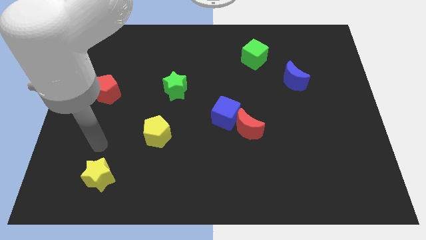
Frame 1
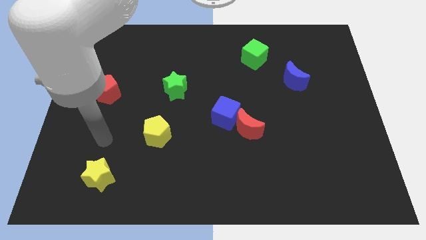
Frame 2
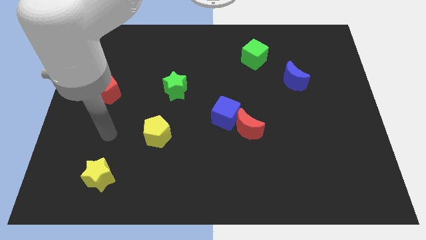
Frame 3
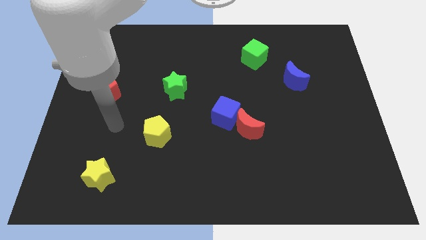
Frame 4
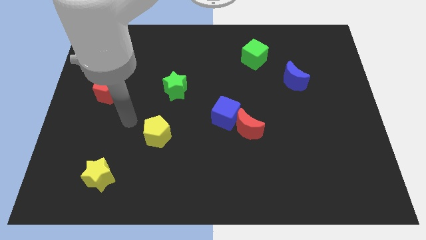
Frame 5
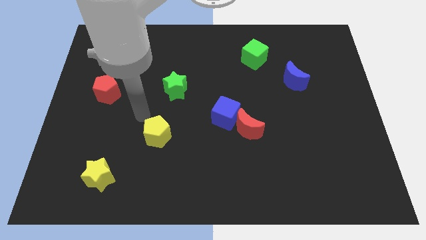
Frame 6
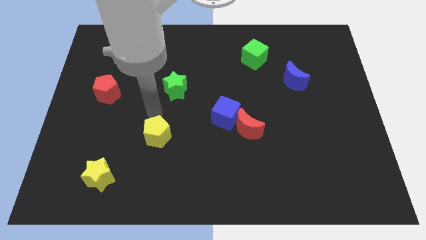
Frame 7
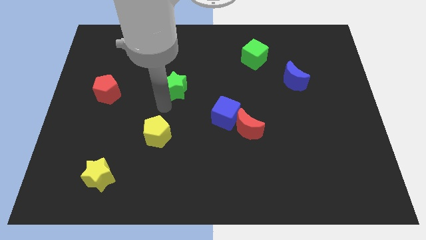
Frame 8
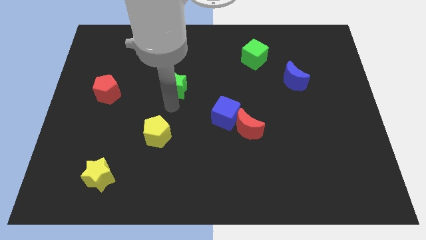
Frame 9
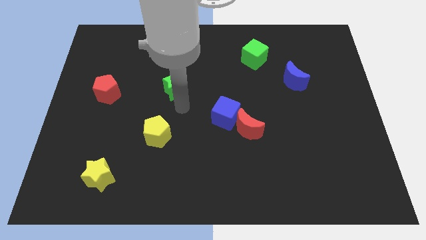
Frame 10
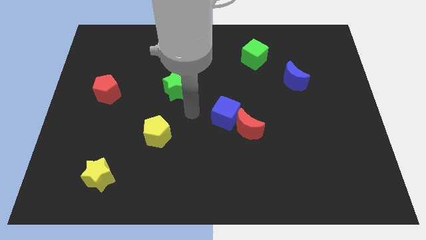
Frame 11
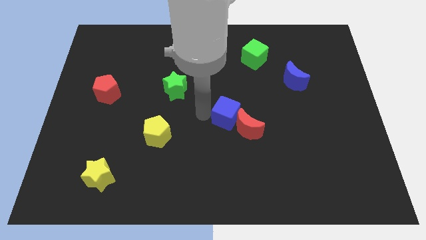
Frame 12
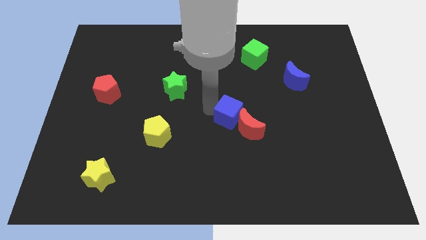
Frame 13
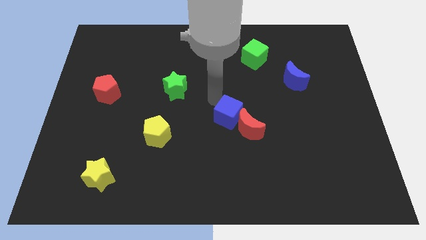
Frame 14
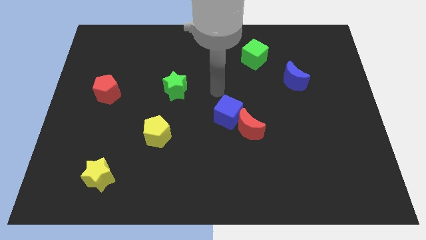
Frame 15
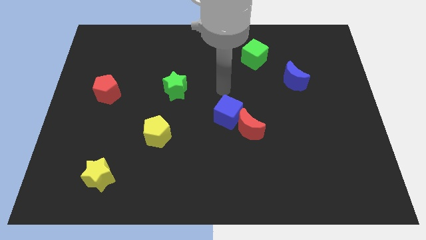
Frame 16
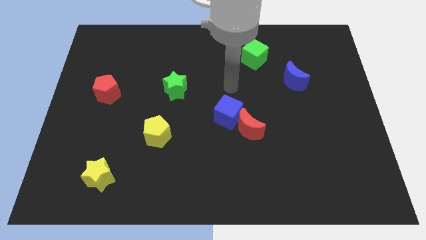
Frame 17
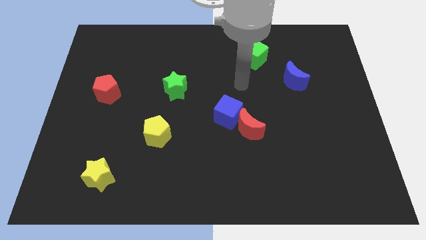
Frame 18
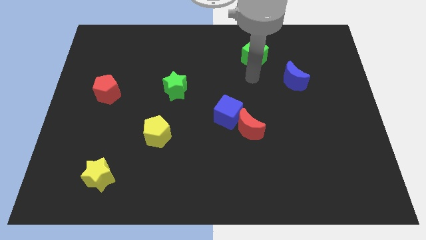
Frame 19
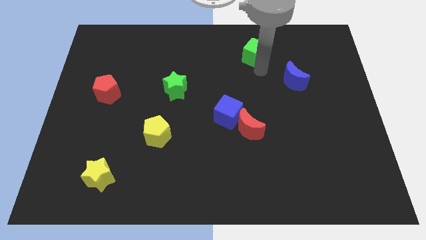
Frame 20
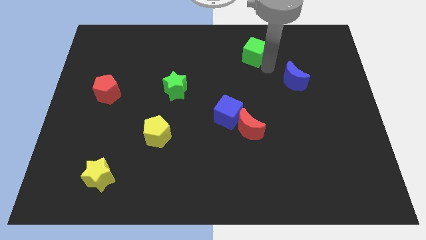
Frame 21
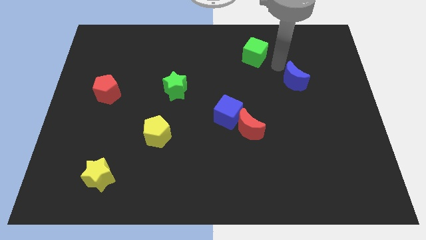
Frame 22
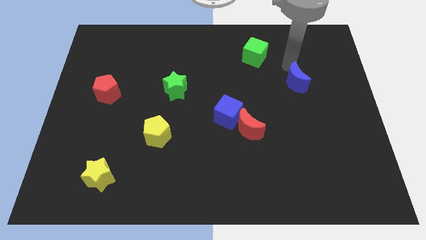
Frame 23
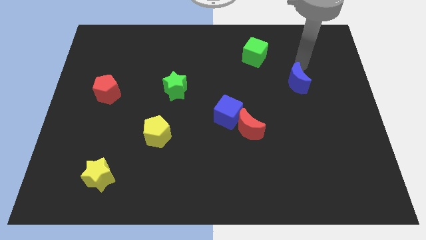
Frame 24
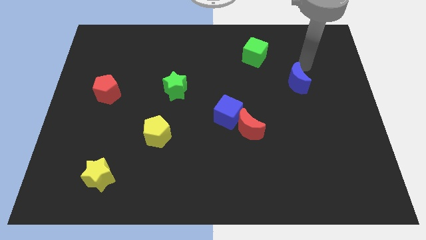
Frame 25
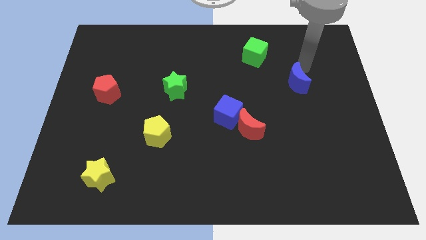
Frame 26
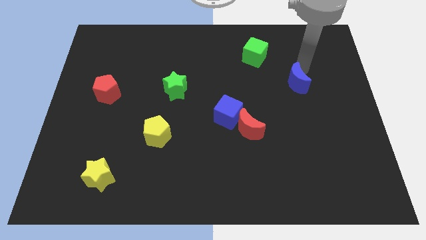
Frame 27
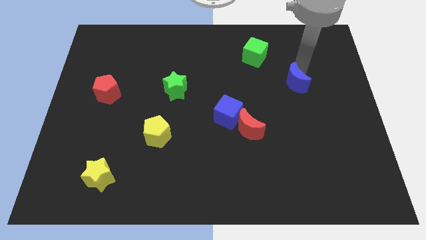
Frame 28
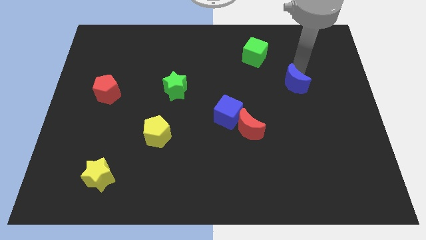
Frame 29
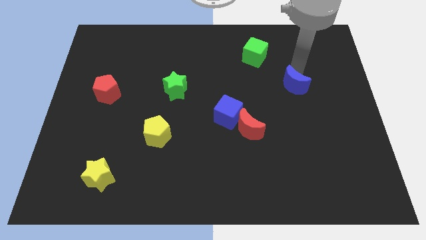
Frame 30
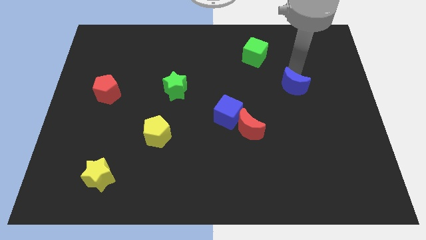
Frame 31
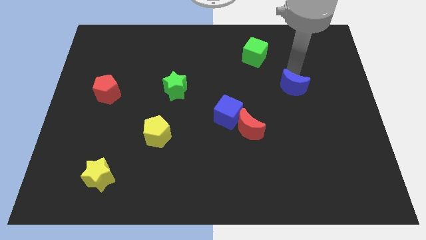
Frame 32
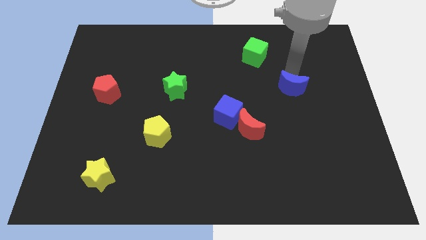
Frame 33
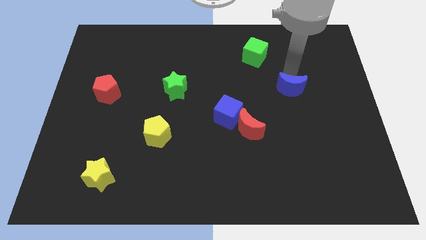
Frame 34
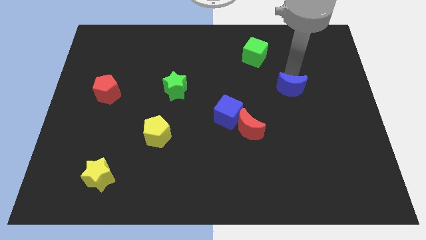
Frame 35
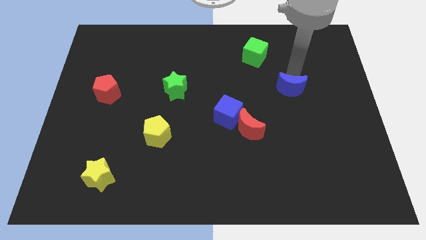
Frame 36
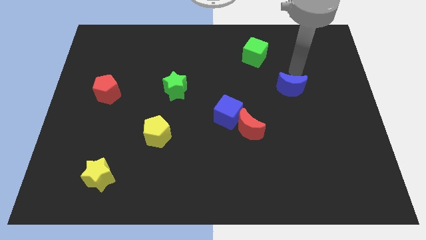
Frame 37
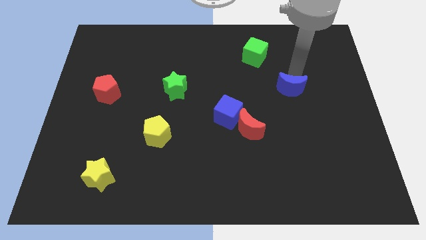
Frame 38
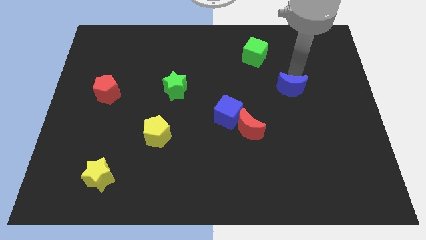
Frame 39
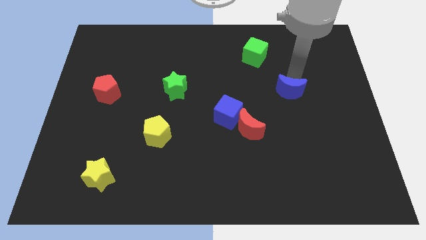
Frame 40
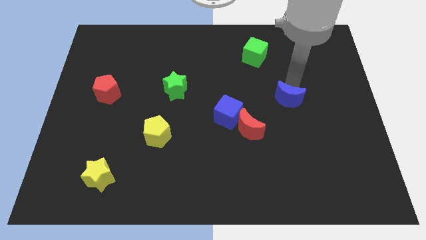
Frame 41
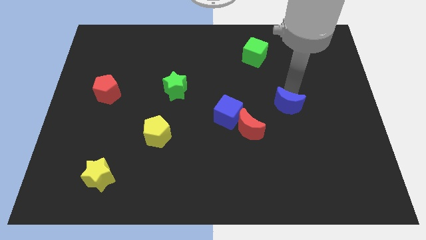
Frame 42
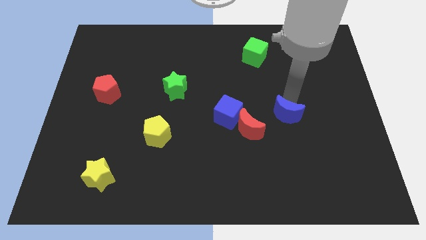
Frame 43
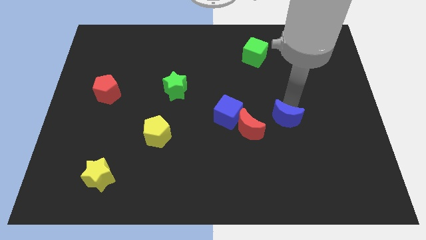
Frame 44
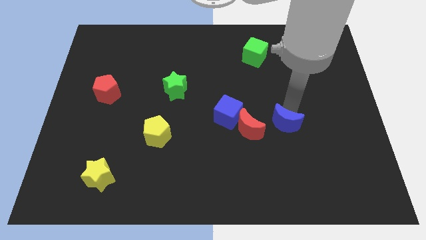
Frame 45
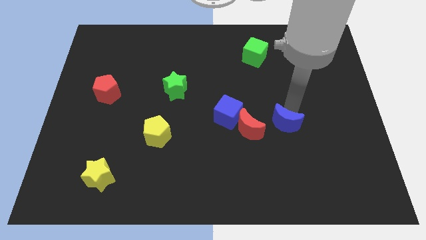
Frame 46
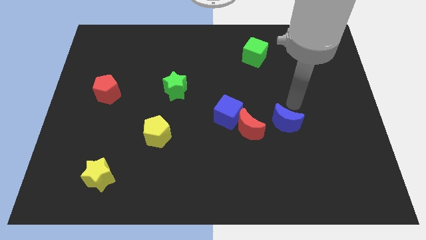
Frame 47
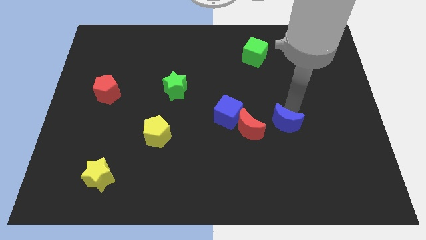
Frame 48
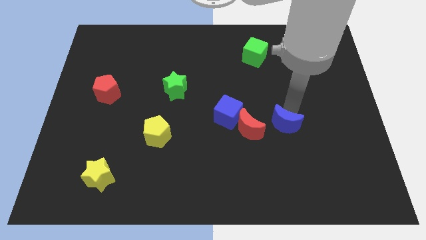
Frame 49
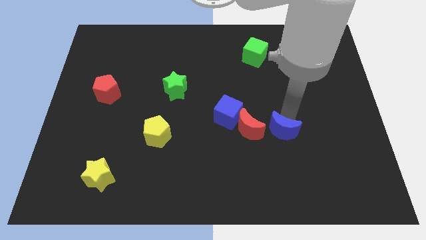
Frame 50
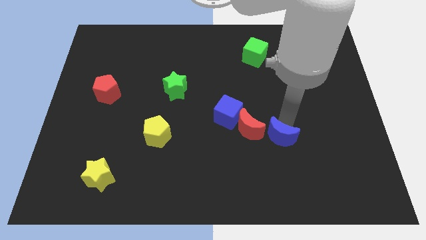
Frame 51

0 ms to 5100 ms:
push the blue moon to the bottom right of the red moon

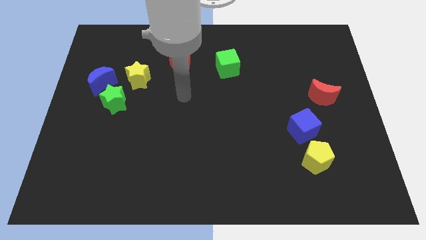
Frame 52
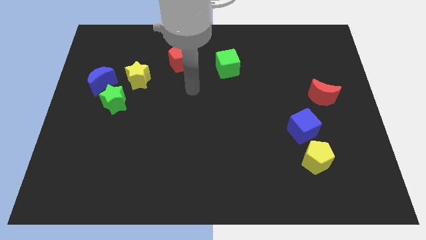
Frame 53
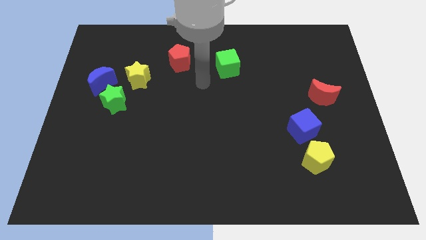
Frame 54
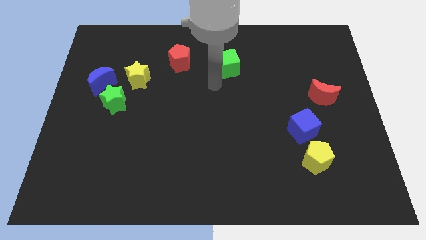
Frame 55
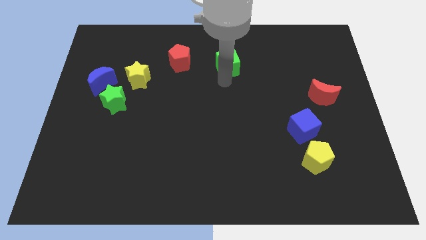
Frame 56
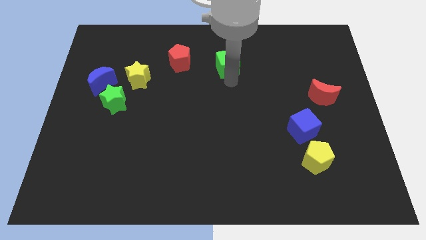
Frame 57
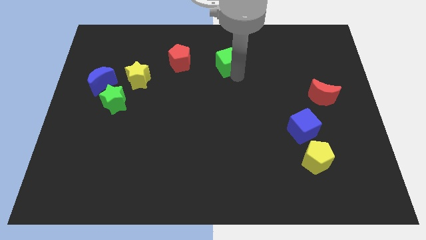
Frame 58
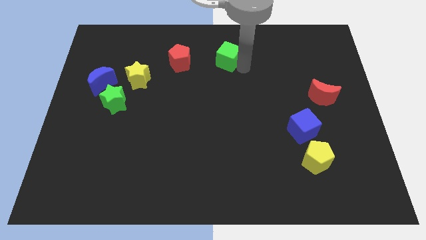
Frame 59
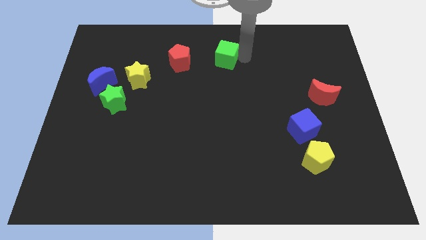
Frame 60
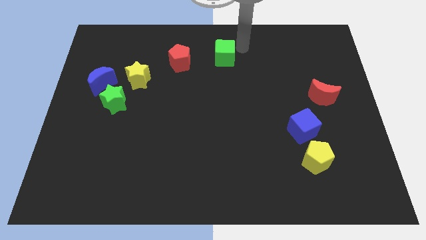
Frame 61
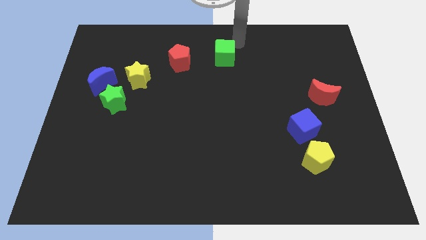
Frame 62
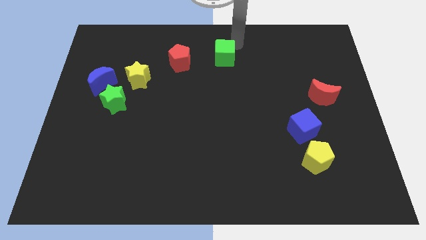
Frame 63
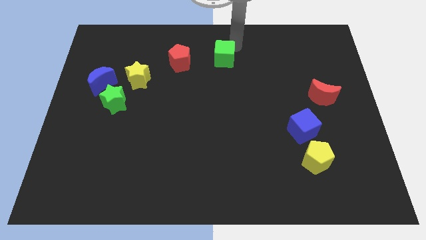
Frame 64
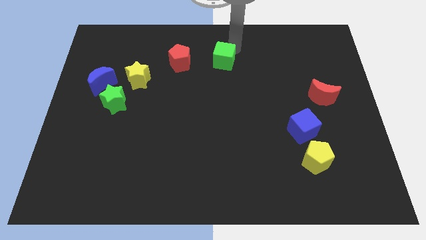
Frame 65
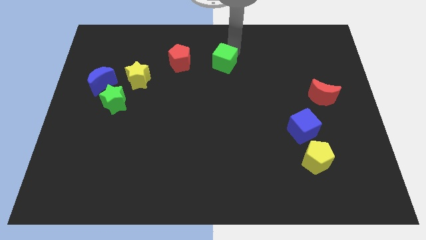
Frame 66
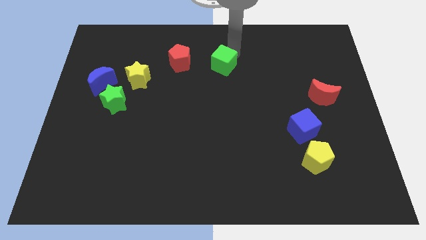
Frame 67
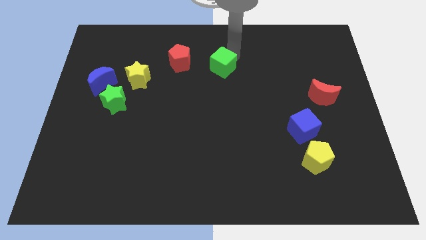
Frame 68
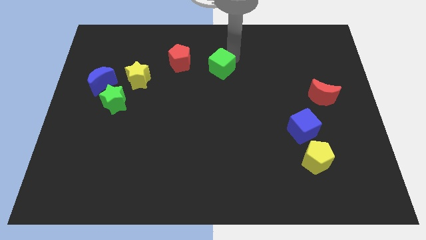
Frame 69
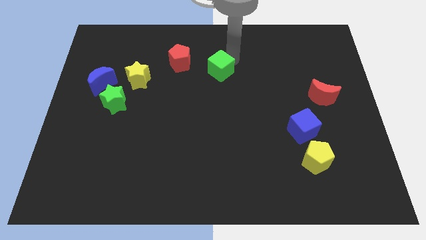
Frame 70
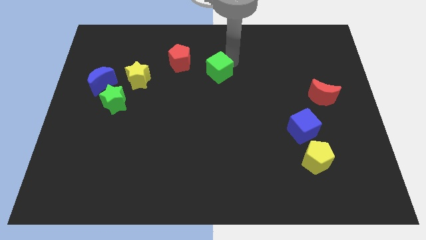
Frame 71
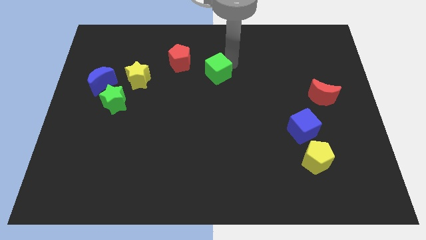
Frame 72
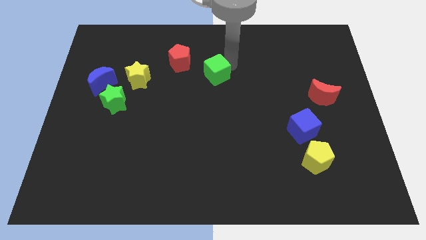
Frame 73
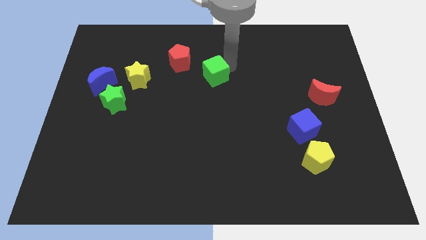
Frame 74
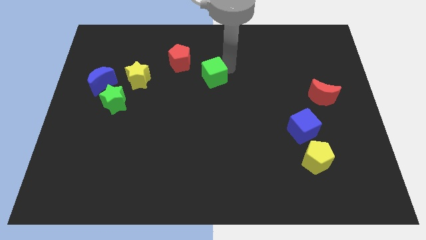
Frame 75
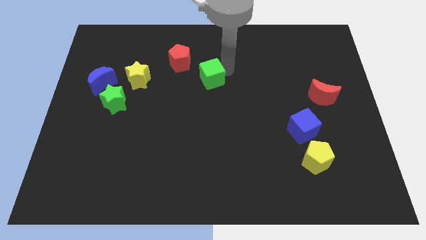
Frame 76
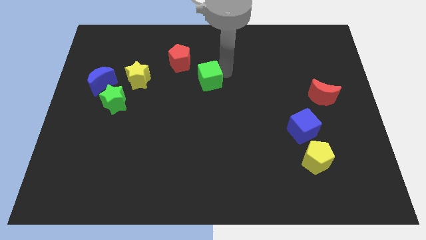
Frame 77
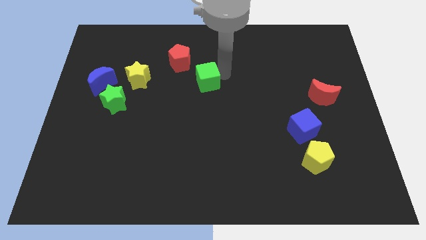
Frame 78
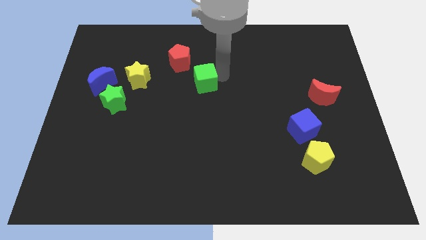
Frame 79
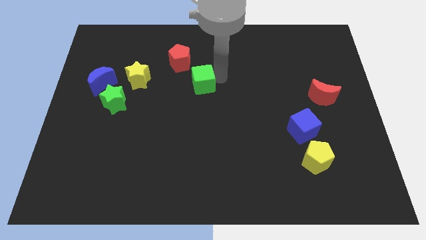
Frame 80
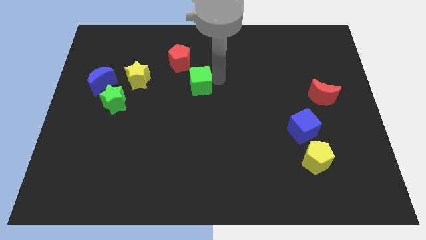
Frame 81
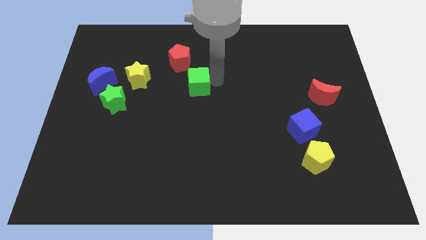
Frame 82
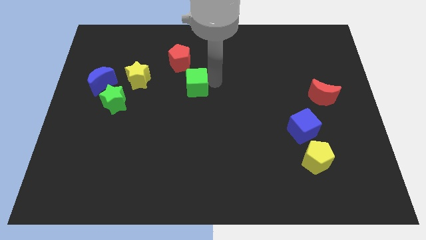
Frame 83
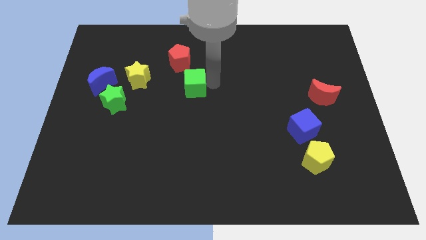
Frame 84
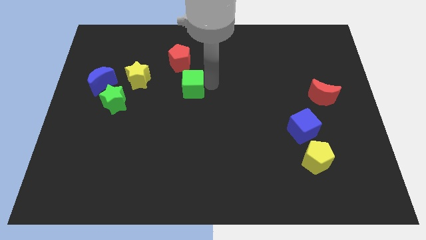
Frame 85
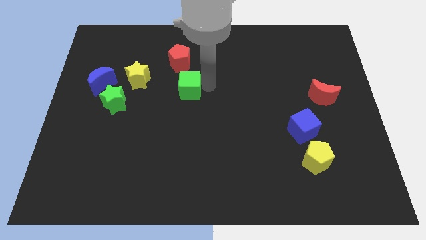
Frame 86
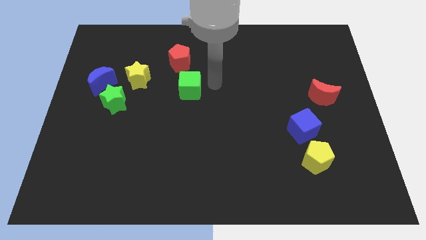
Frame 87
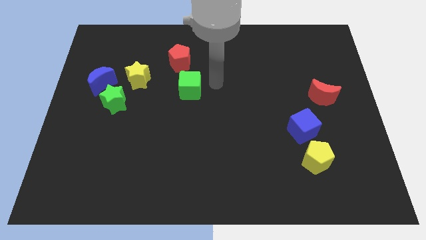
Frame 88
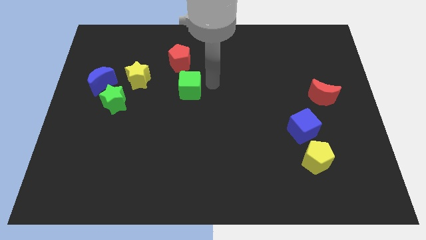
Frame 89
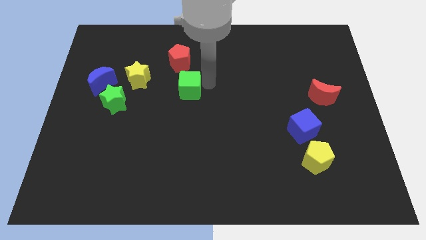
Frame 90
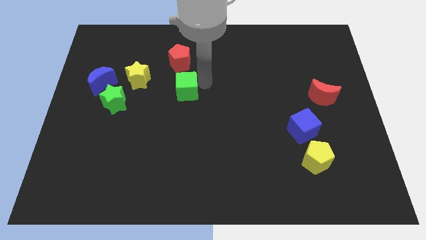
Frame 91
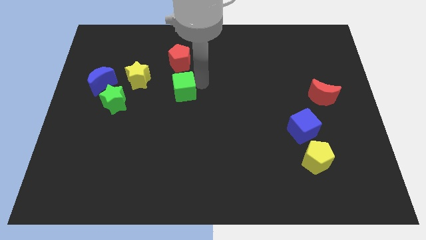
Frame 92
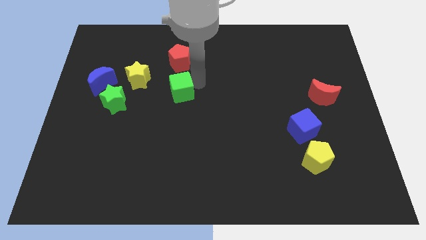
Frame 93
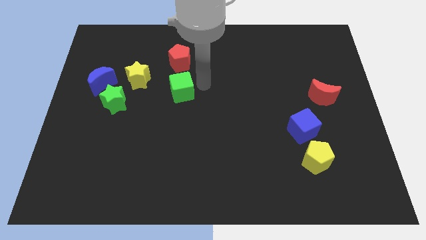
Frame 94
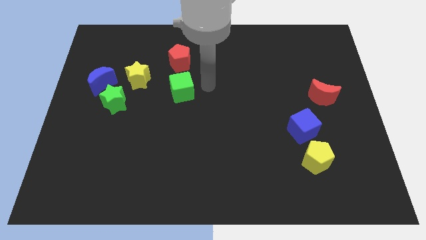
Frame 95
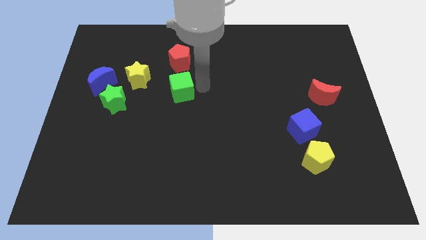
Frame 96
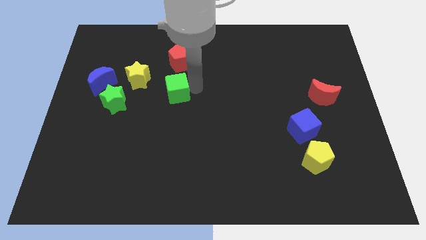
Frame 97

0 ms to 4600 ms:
put the green cube to the bottom right side of the yellow star
